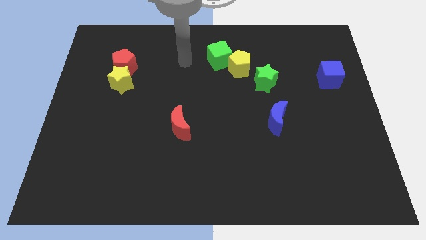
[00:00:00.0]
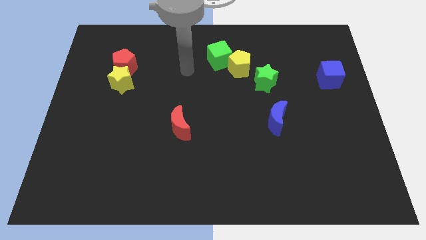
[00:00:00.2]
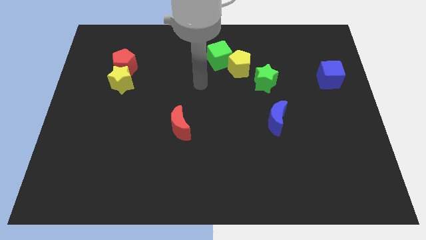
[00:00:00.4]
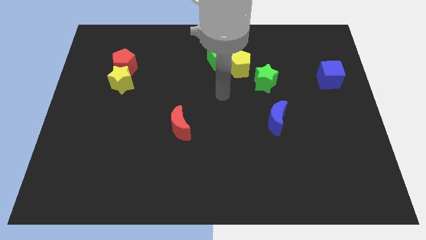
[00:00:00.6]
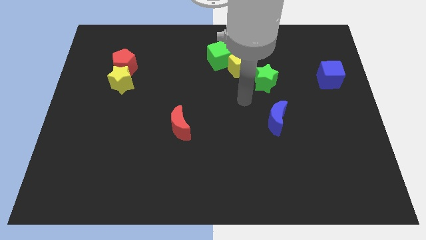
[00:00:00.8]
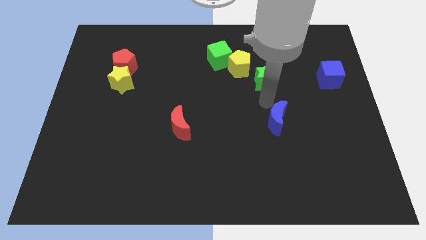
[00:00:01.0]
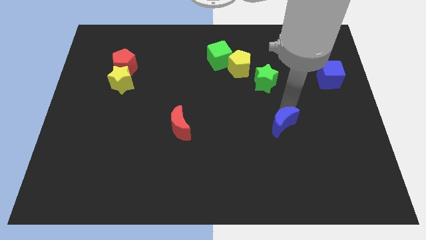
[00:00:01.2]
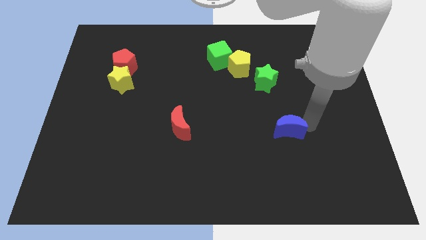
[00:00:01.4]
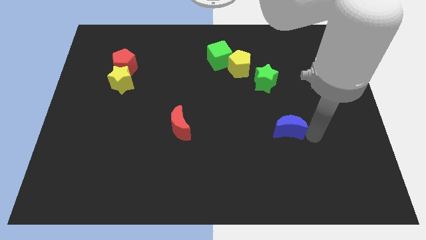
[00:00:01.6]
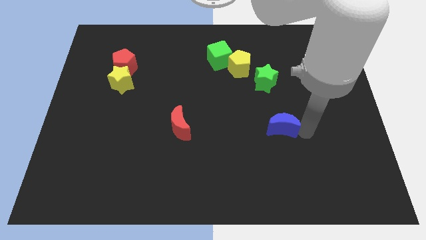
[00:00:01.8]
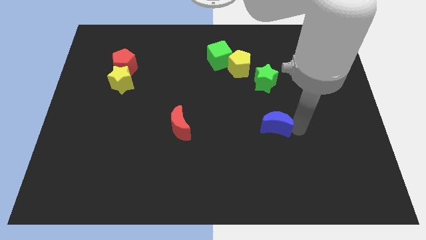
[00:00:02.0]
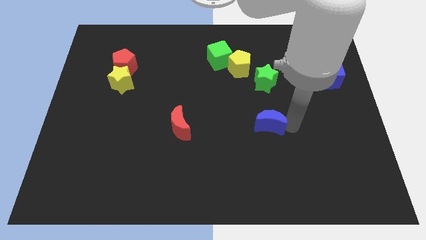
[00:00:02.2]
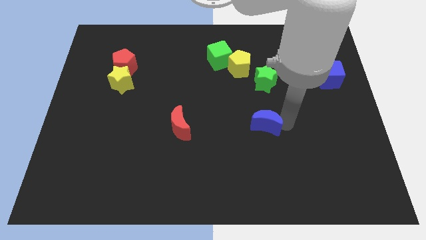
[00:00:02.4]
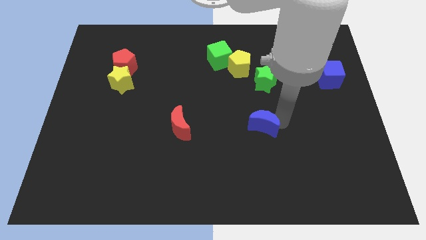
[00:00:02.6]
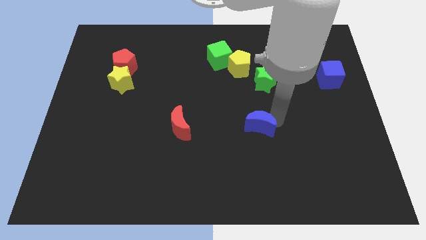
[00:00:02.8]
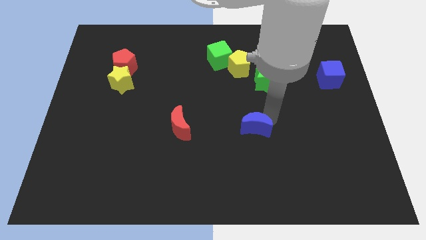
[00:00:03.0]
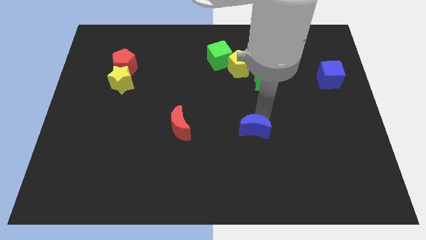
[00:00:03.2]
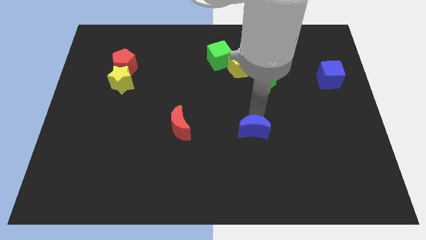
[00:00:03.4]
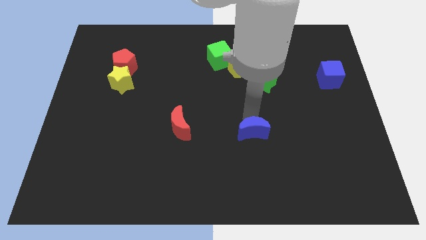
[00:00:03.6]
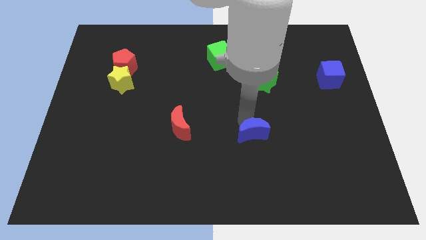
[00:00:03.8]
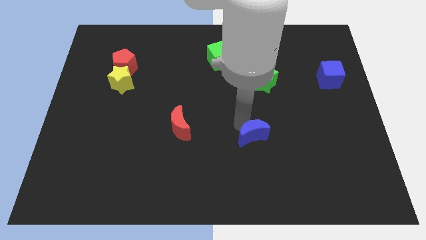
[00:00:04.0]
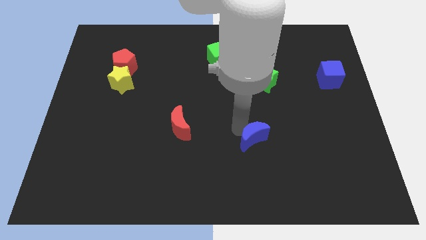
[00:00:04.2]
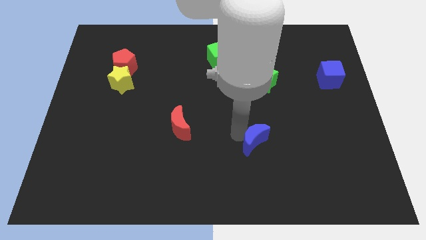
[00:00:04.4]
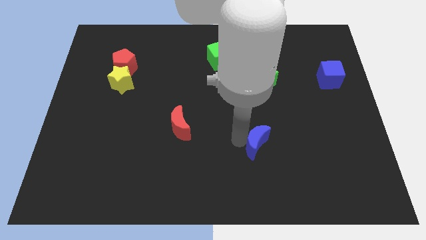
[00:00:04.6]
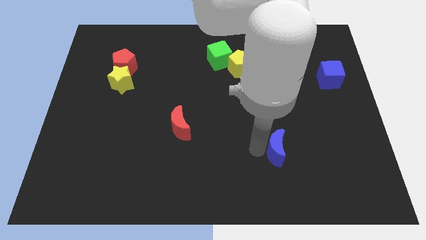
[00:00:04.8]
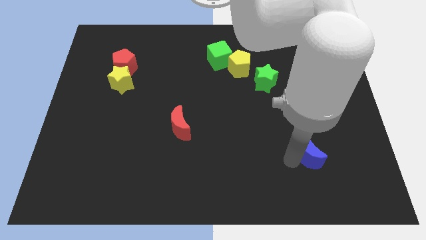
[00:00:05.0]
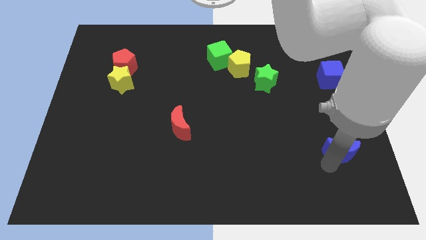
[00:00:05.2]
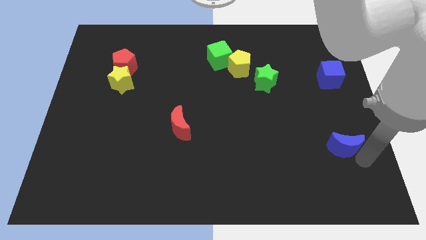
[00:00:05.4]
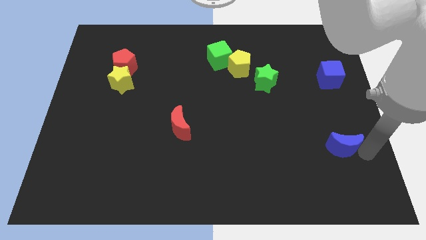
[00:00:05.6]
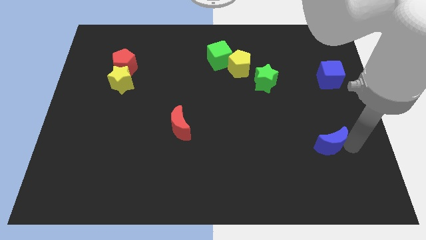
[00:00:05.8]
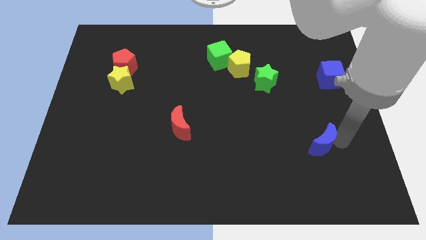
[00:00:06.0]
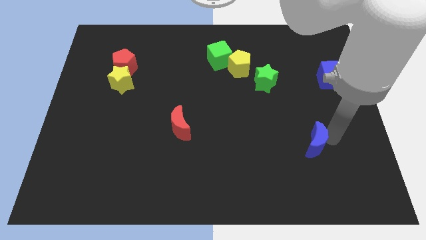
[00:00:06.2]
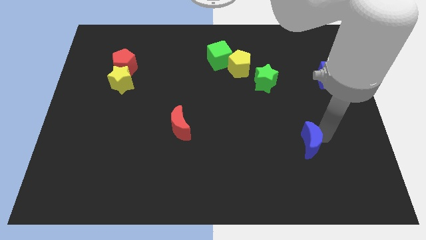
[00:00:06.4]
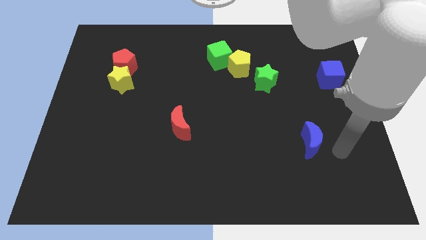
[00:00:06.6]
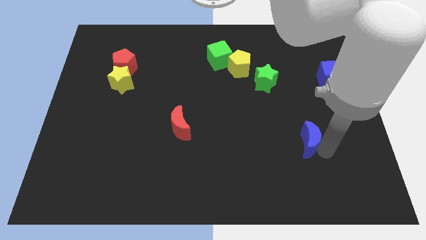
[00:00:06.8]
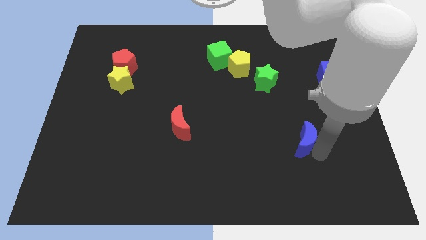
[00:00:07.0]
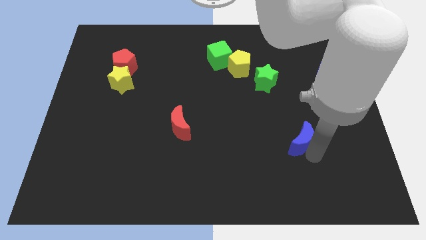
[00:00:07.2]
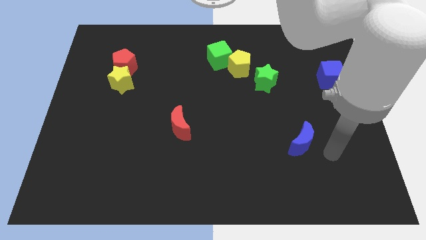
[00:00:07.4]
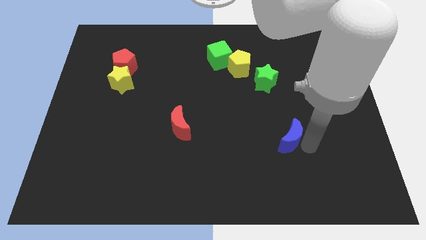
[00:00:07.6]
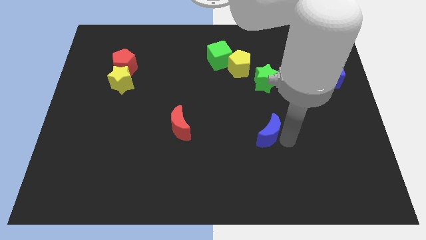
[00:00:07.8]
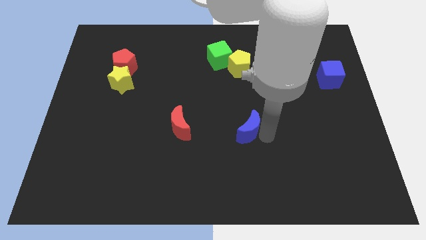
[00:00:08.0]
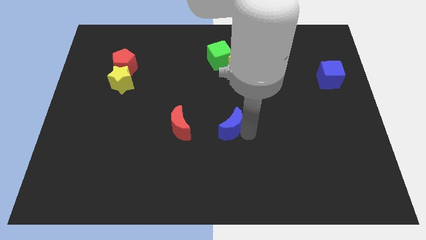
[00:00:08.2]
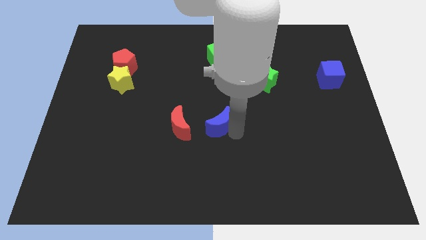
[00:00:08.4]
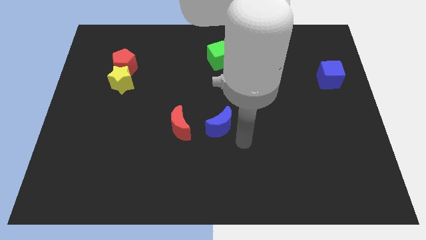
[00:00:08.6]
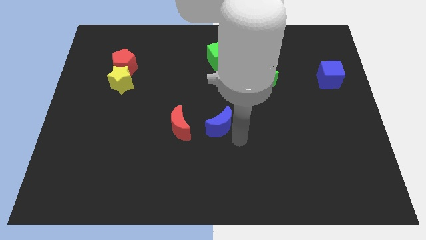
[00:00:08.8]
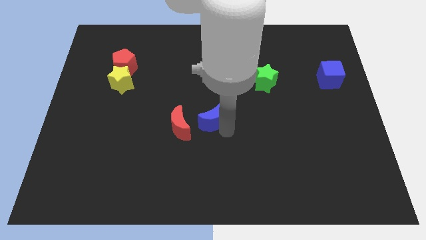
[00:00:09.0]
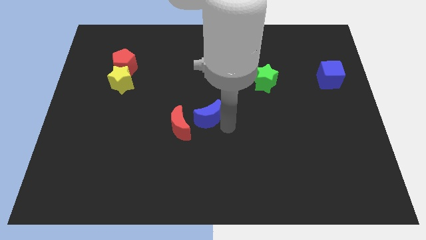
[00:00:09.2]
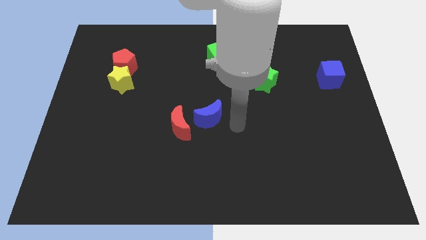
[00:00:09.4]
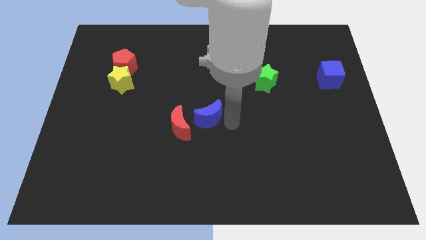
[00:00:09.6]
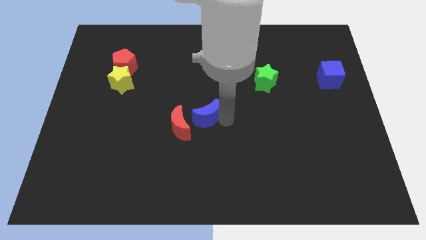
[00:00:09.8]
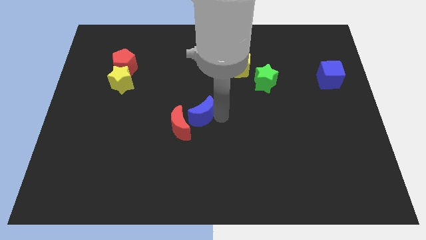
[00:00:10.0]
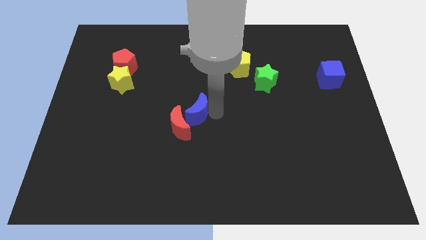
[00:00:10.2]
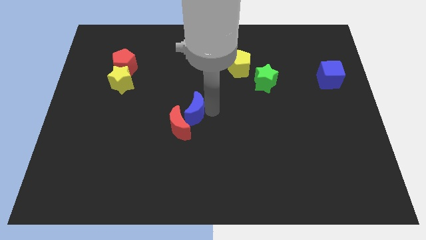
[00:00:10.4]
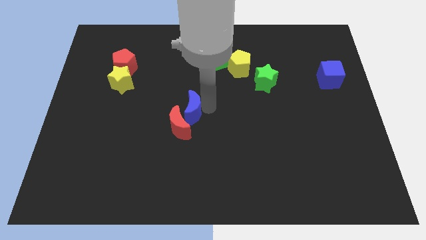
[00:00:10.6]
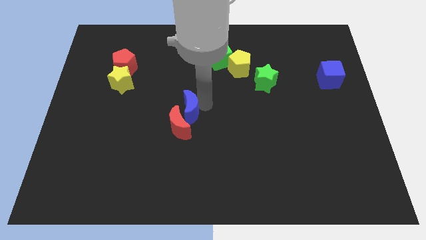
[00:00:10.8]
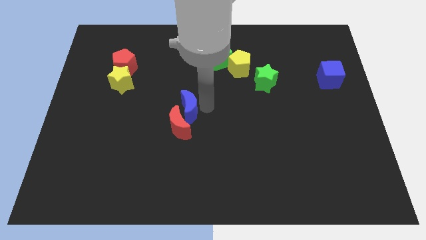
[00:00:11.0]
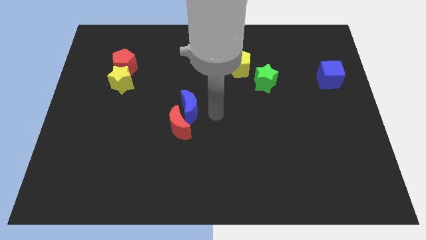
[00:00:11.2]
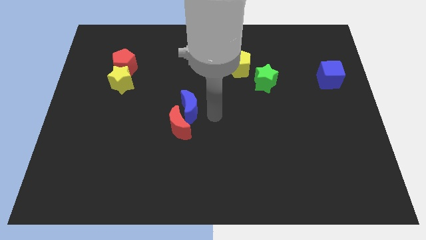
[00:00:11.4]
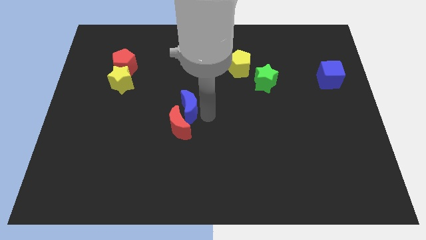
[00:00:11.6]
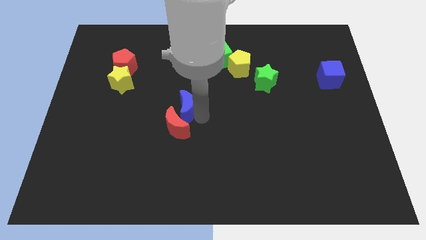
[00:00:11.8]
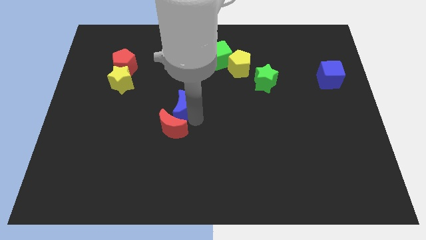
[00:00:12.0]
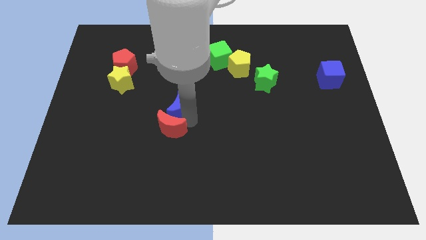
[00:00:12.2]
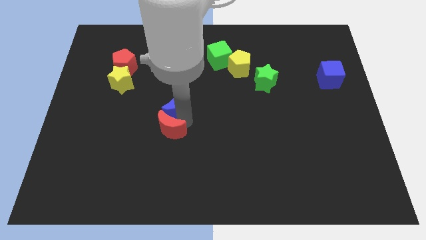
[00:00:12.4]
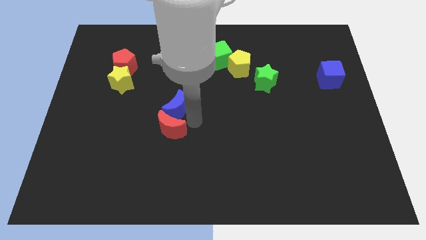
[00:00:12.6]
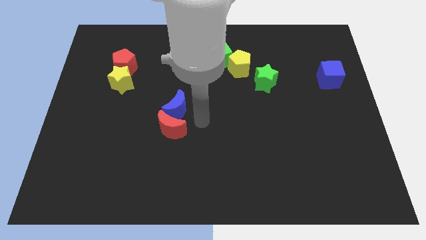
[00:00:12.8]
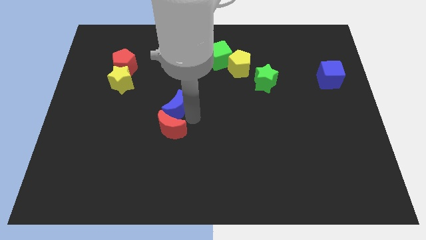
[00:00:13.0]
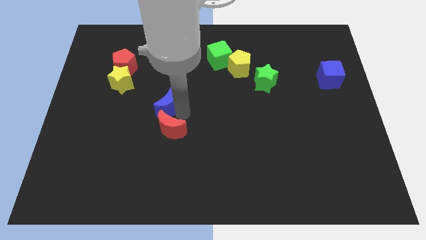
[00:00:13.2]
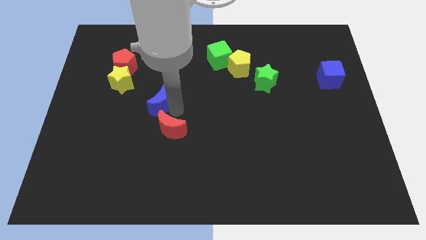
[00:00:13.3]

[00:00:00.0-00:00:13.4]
put the blue moon to the bottom right side of the yellow star
